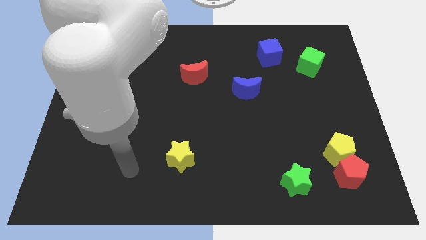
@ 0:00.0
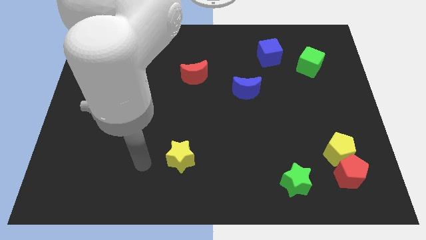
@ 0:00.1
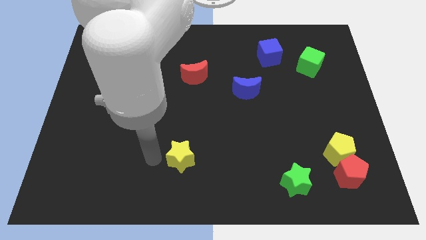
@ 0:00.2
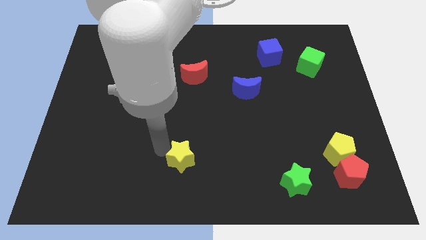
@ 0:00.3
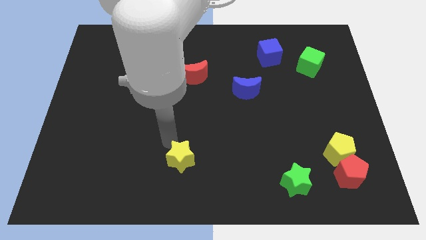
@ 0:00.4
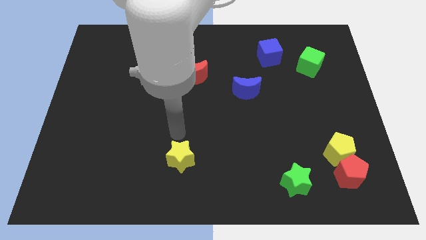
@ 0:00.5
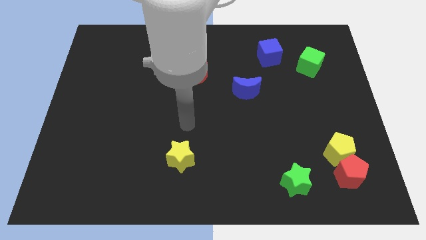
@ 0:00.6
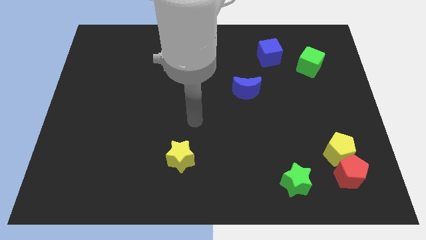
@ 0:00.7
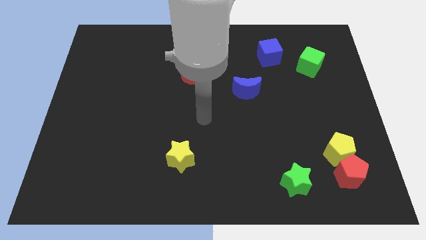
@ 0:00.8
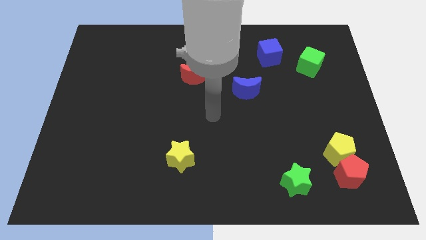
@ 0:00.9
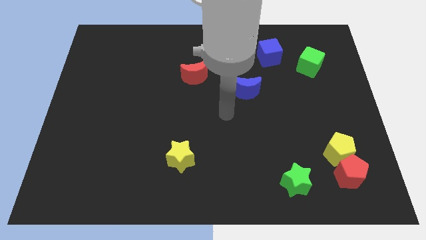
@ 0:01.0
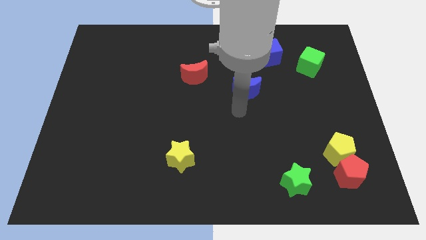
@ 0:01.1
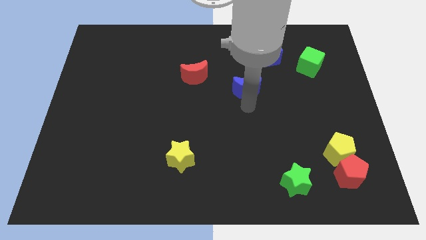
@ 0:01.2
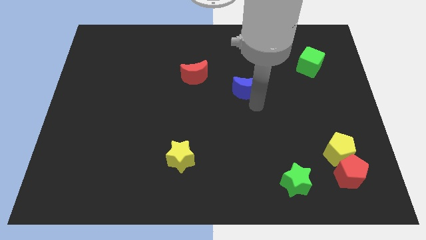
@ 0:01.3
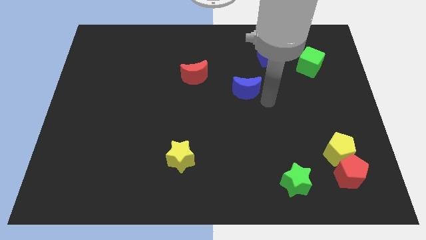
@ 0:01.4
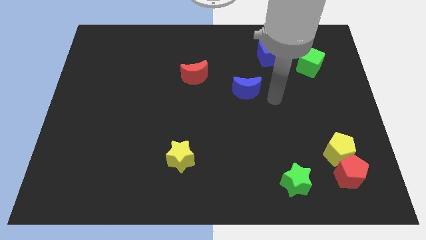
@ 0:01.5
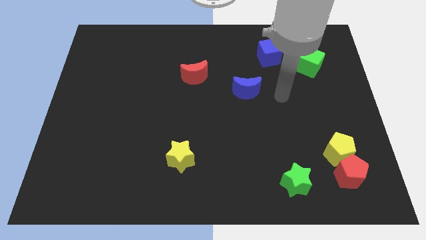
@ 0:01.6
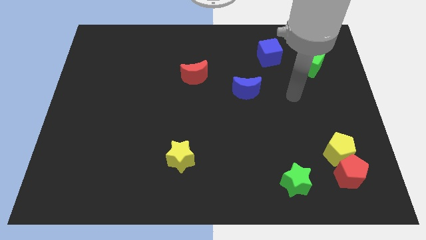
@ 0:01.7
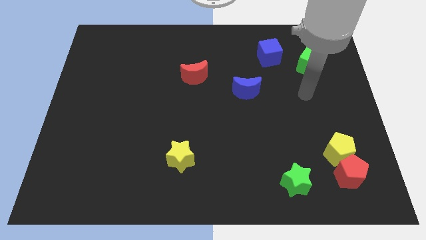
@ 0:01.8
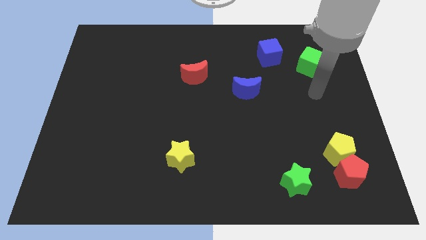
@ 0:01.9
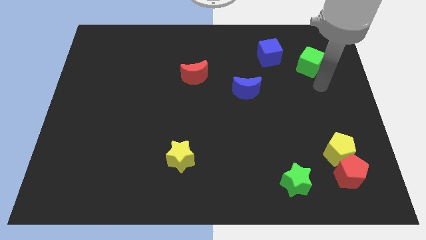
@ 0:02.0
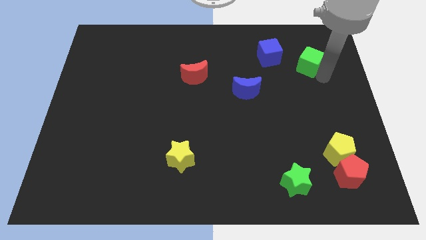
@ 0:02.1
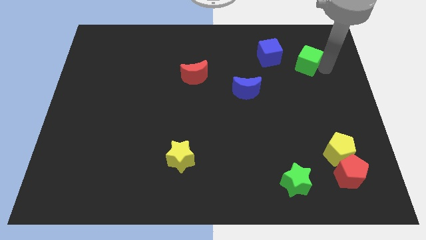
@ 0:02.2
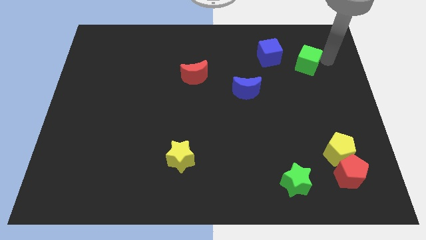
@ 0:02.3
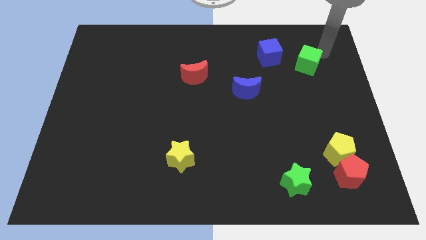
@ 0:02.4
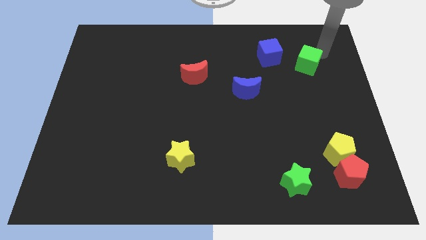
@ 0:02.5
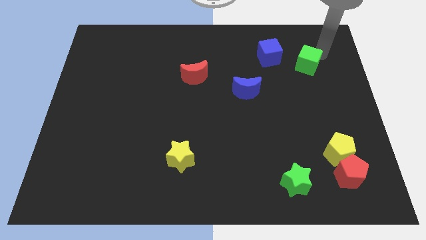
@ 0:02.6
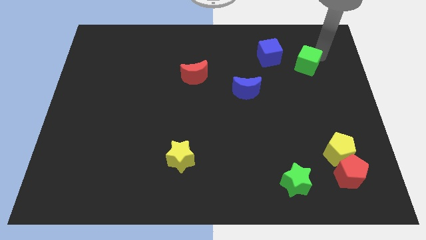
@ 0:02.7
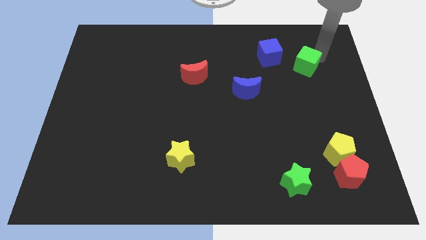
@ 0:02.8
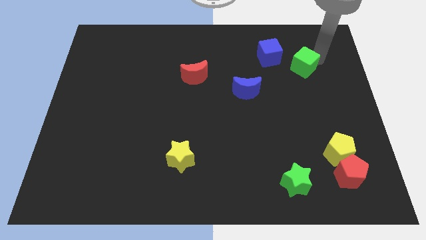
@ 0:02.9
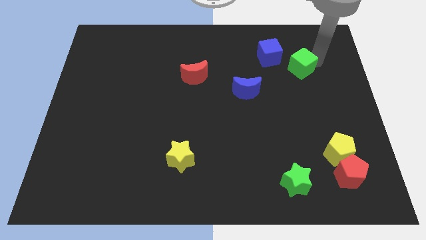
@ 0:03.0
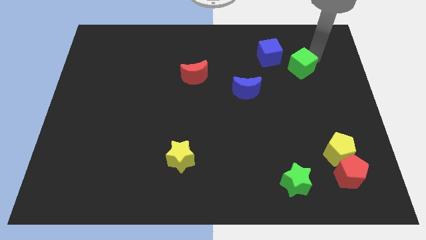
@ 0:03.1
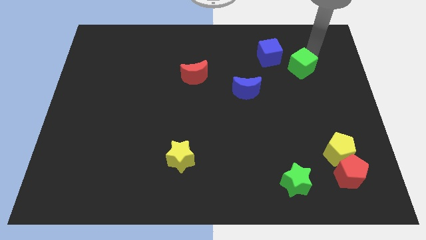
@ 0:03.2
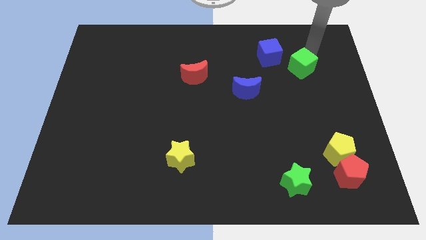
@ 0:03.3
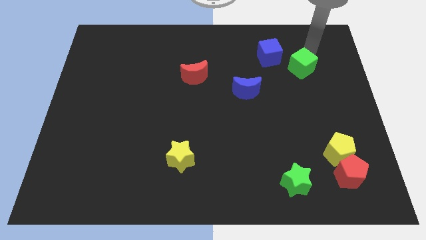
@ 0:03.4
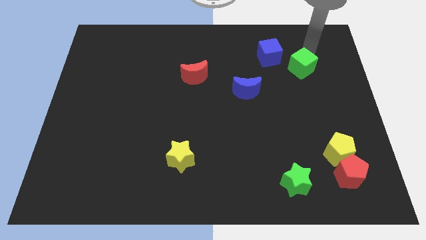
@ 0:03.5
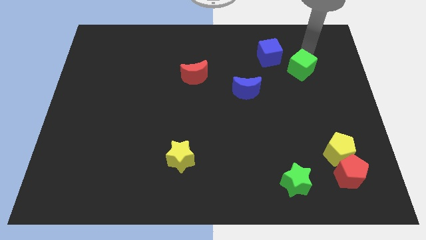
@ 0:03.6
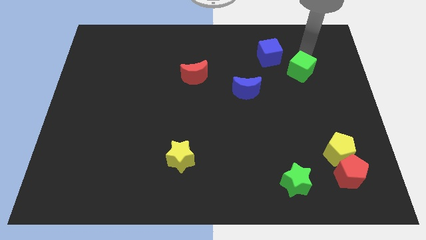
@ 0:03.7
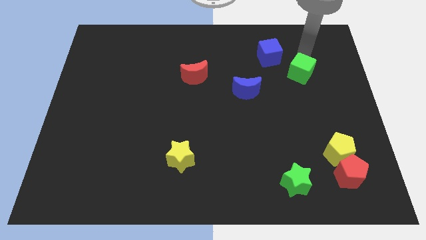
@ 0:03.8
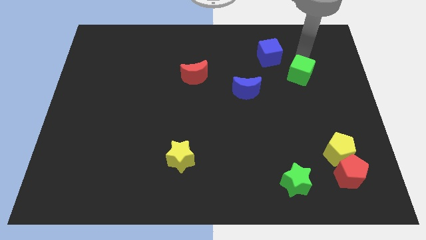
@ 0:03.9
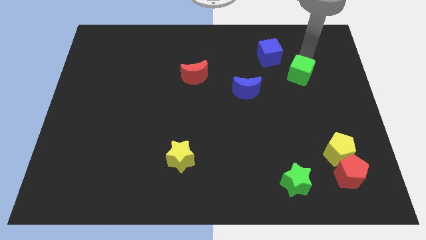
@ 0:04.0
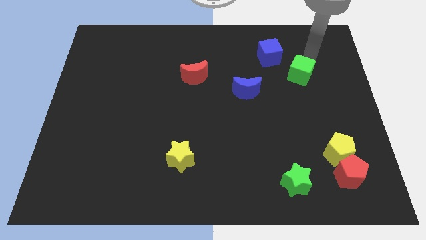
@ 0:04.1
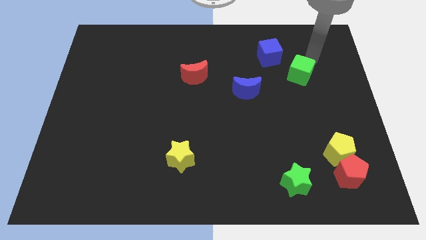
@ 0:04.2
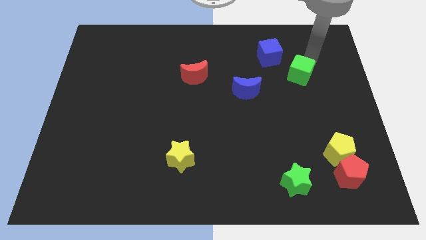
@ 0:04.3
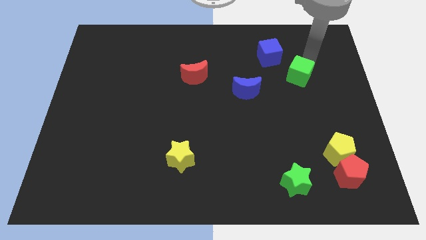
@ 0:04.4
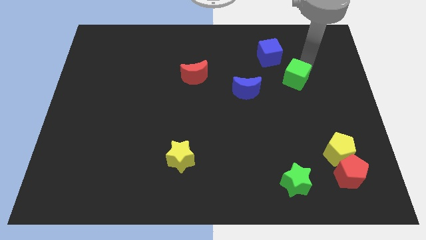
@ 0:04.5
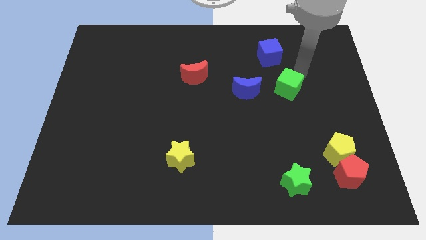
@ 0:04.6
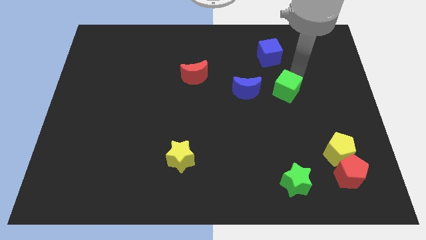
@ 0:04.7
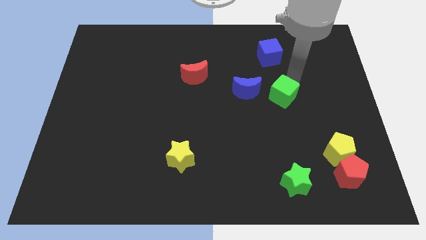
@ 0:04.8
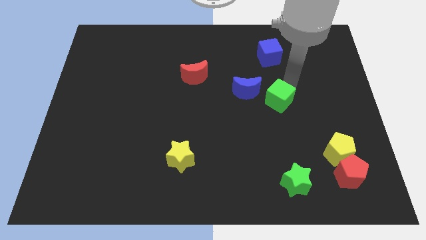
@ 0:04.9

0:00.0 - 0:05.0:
put the green cube to the bottom right of the blue moon

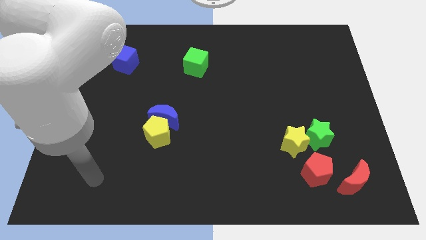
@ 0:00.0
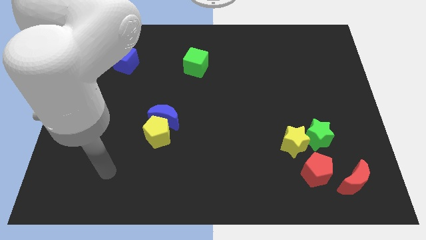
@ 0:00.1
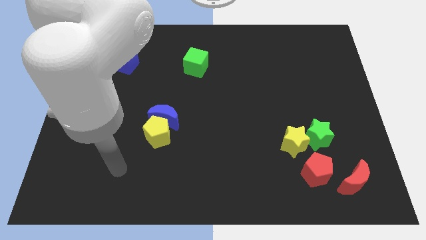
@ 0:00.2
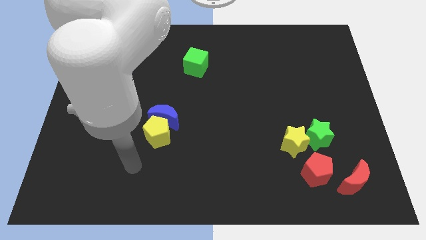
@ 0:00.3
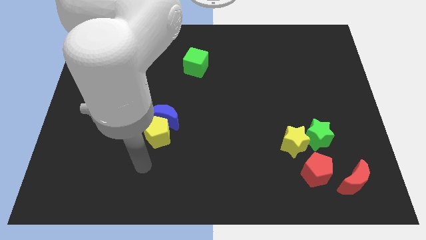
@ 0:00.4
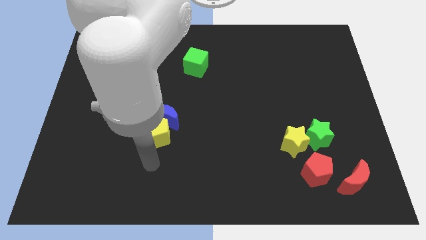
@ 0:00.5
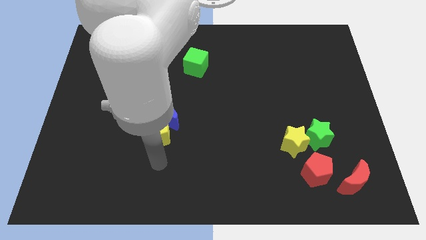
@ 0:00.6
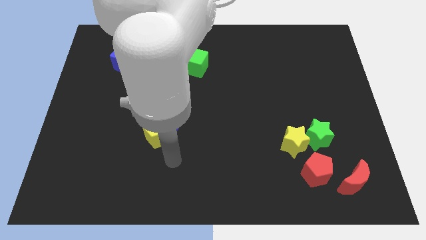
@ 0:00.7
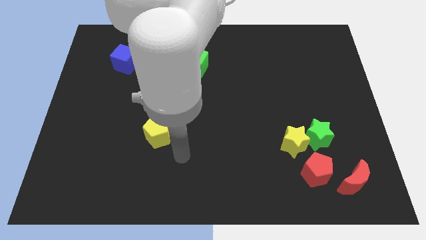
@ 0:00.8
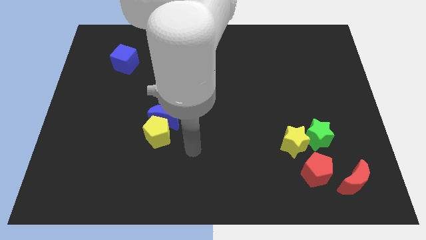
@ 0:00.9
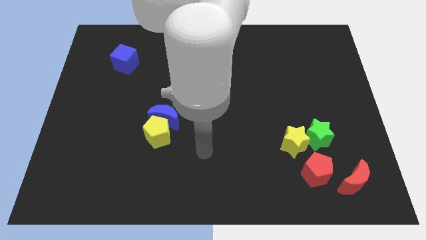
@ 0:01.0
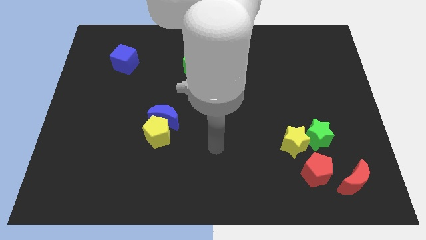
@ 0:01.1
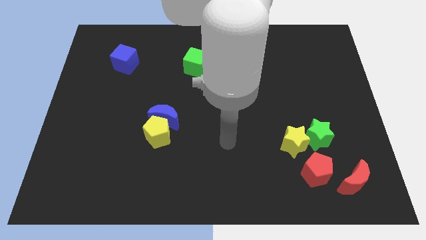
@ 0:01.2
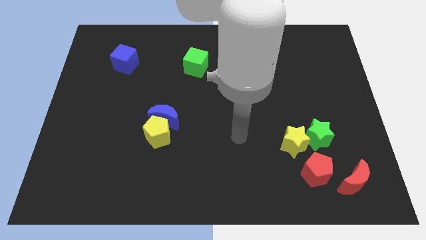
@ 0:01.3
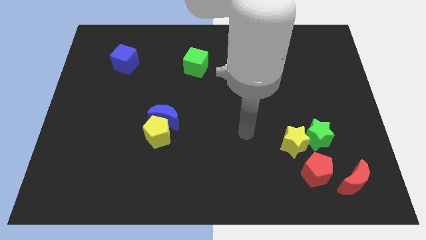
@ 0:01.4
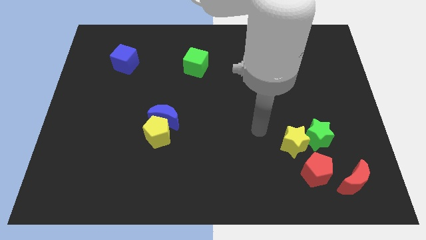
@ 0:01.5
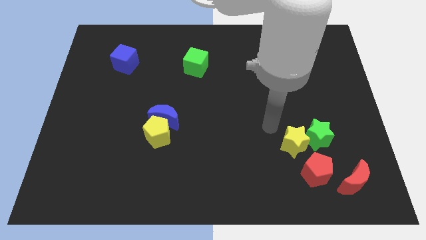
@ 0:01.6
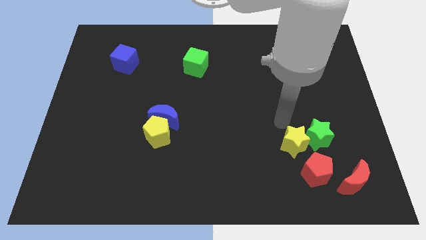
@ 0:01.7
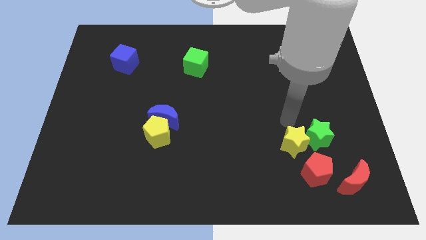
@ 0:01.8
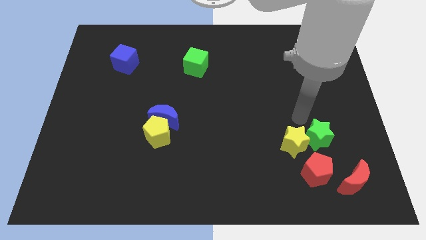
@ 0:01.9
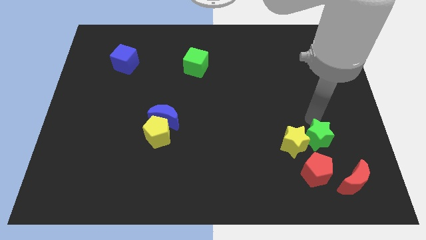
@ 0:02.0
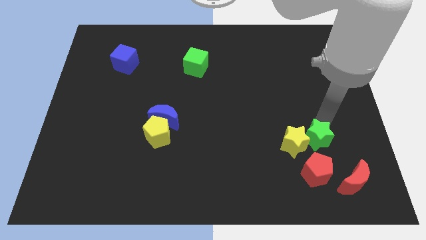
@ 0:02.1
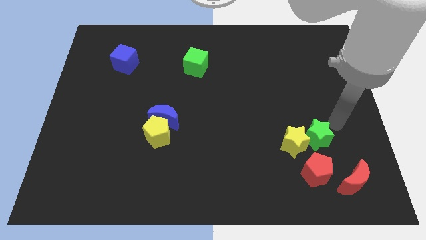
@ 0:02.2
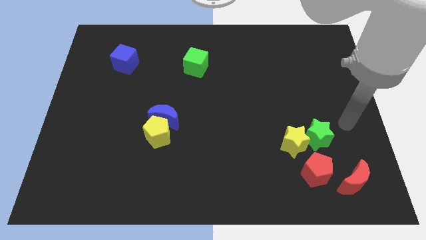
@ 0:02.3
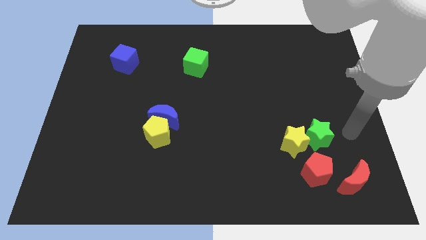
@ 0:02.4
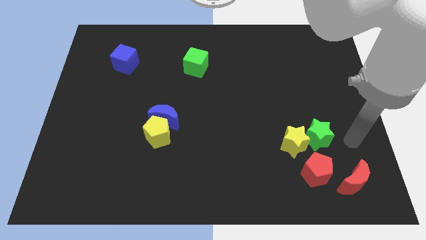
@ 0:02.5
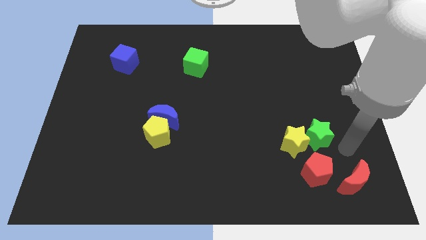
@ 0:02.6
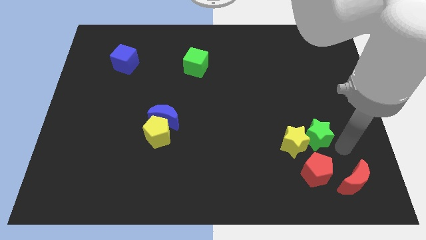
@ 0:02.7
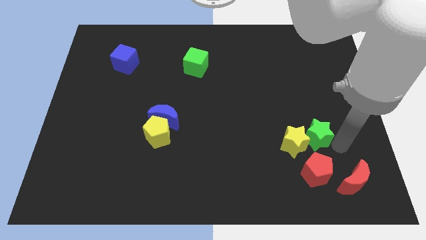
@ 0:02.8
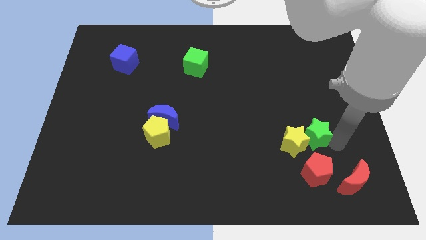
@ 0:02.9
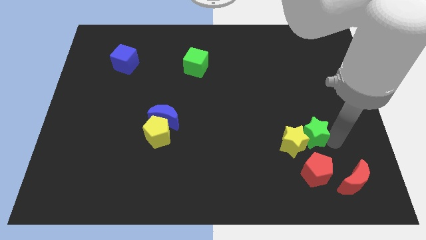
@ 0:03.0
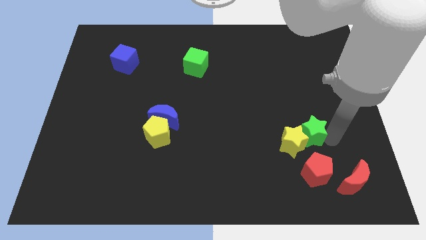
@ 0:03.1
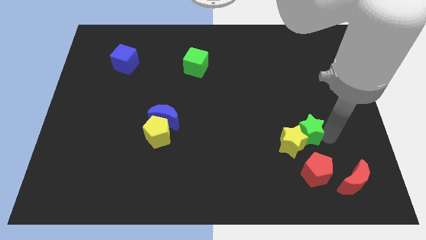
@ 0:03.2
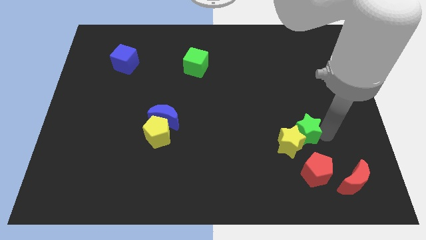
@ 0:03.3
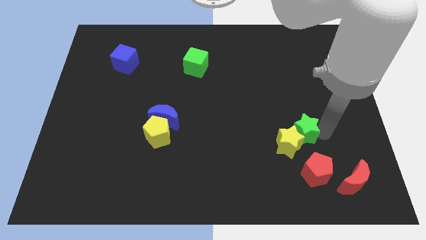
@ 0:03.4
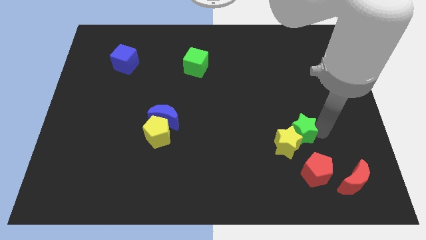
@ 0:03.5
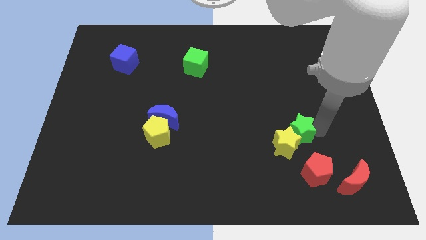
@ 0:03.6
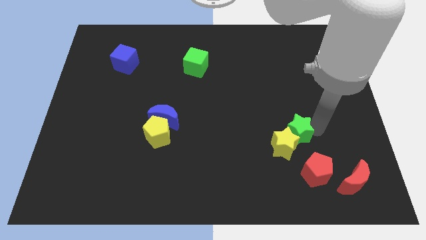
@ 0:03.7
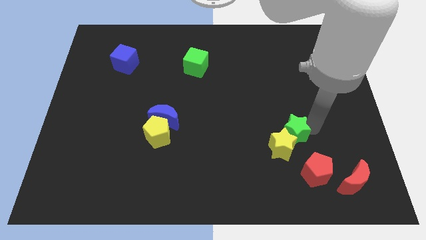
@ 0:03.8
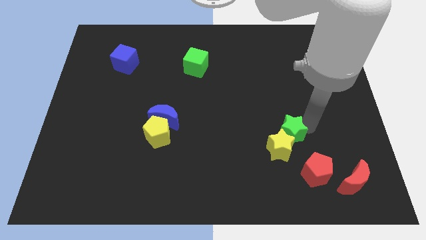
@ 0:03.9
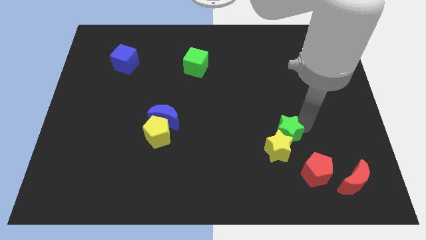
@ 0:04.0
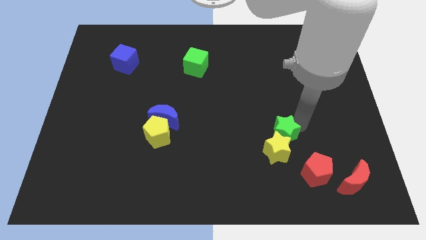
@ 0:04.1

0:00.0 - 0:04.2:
slide the green star to the top left of the yellow star
